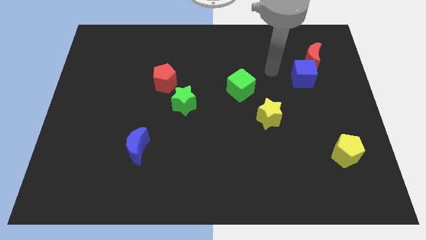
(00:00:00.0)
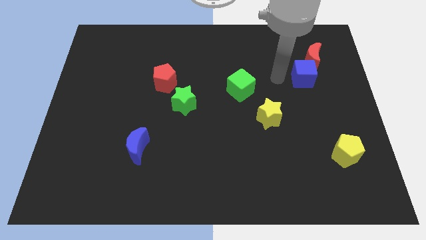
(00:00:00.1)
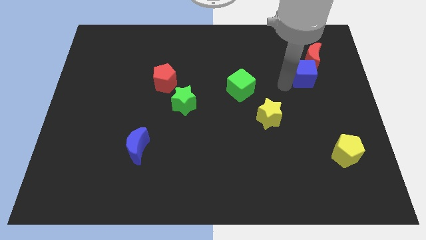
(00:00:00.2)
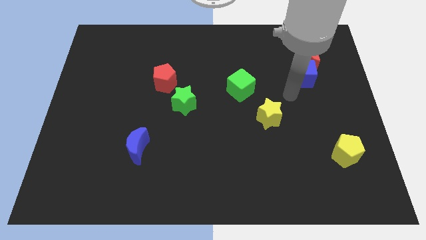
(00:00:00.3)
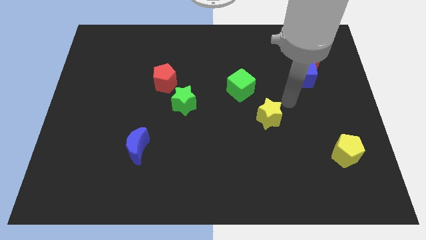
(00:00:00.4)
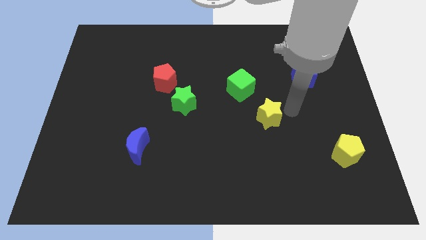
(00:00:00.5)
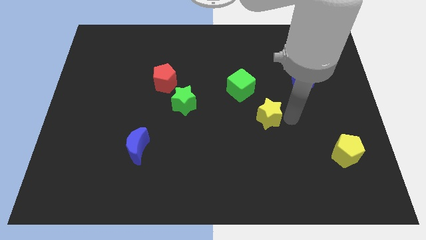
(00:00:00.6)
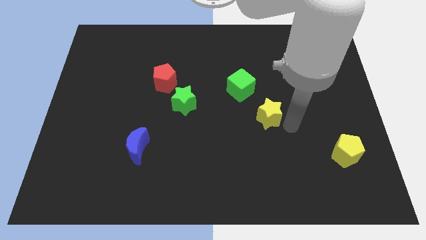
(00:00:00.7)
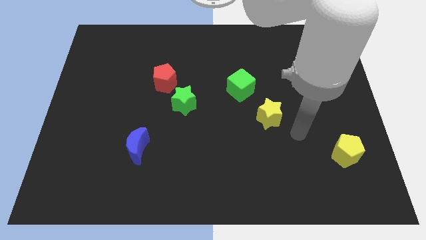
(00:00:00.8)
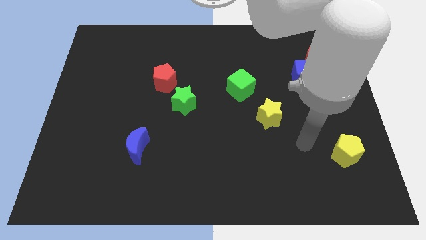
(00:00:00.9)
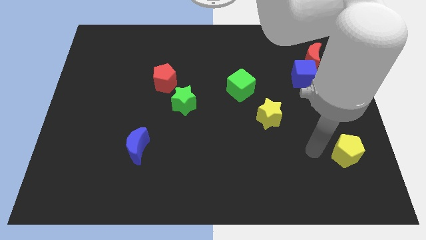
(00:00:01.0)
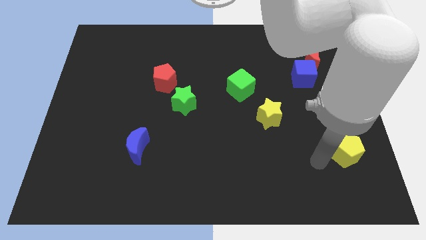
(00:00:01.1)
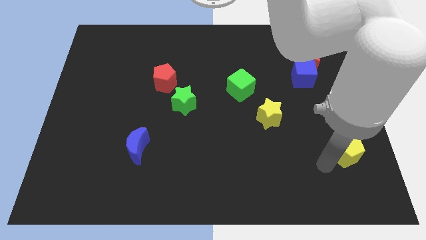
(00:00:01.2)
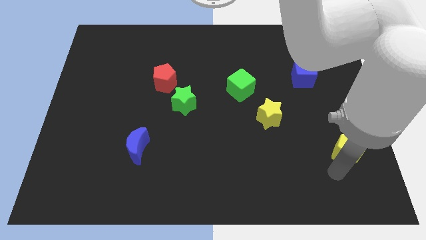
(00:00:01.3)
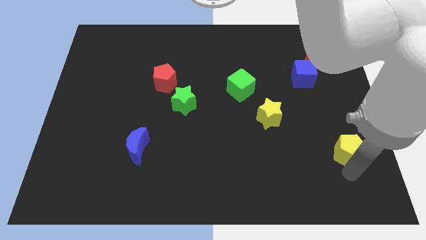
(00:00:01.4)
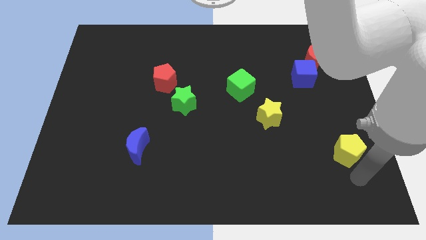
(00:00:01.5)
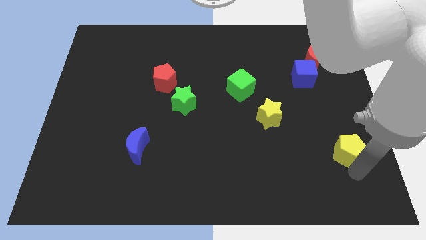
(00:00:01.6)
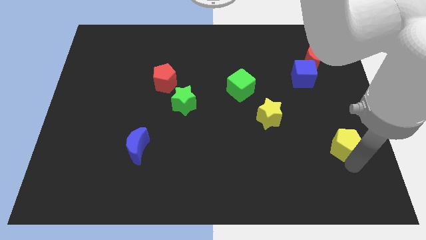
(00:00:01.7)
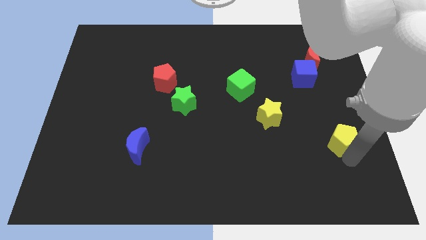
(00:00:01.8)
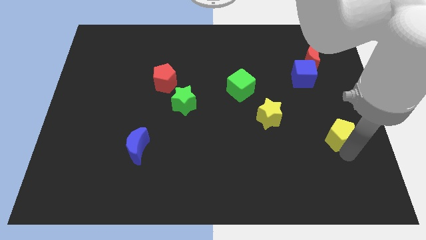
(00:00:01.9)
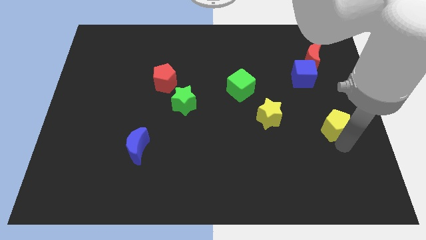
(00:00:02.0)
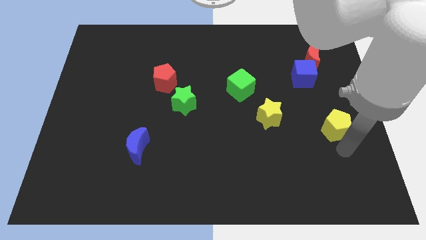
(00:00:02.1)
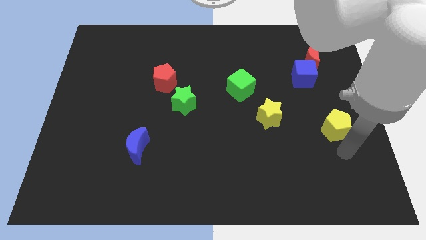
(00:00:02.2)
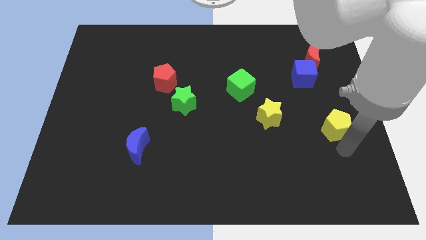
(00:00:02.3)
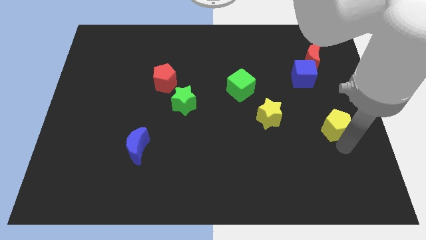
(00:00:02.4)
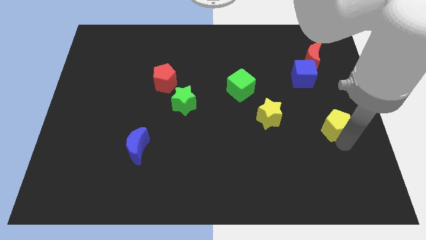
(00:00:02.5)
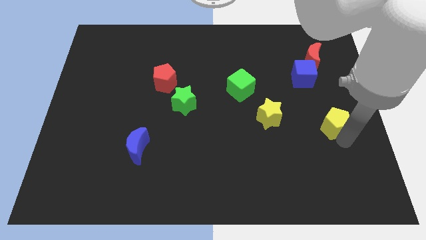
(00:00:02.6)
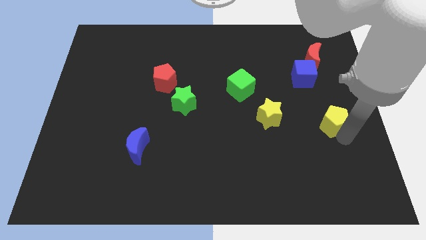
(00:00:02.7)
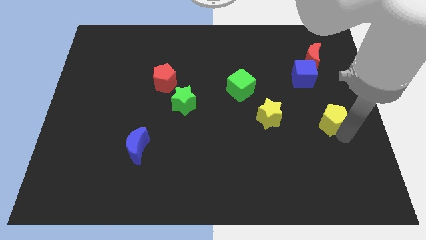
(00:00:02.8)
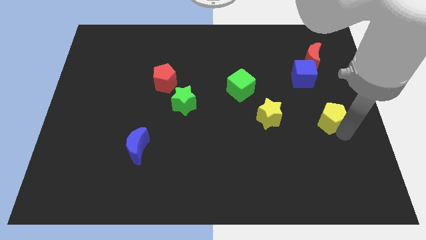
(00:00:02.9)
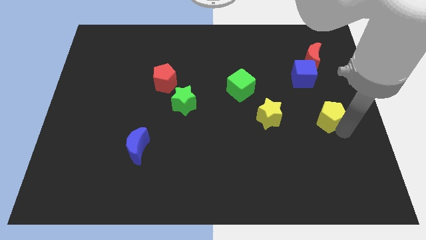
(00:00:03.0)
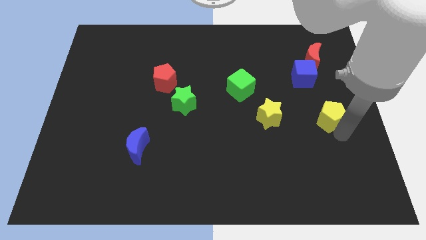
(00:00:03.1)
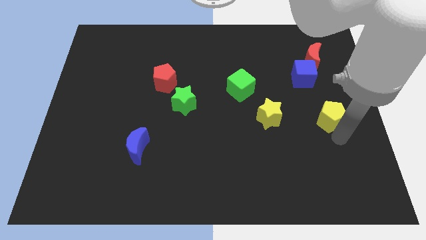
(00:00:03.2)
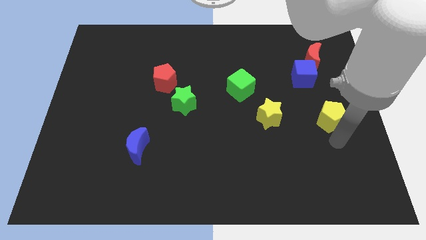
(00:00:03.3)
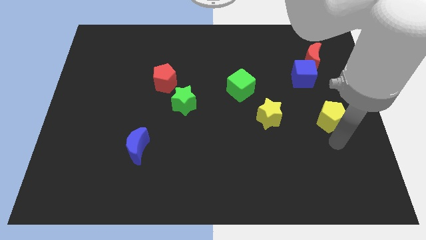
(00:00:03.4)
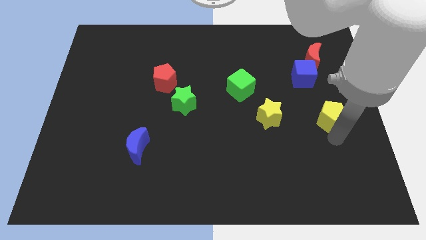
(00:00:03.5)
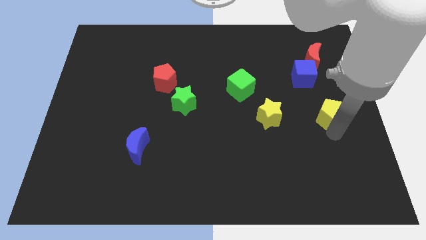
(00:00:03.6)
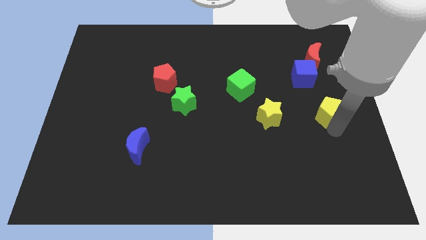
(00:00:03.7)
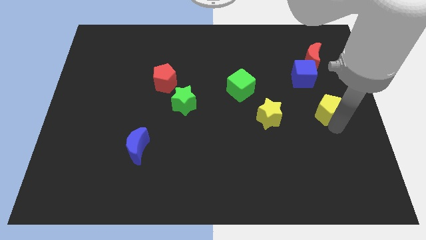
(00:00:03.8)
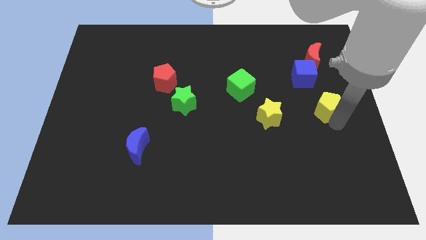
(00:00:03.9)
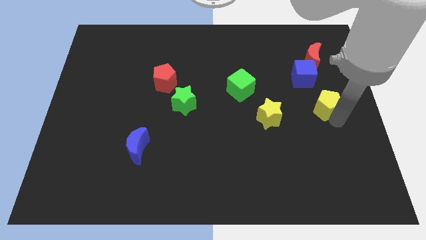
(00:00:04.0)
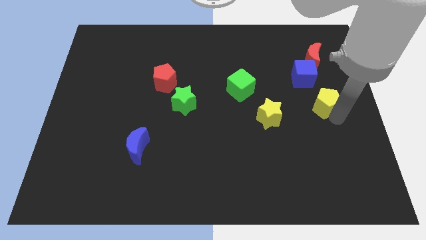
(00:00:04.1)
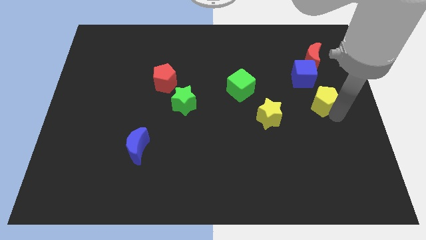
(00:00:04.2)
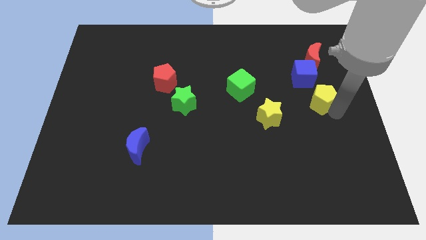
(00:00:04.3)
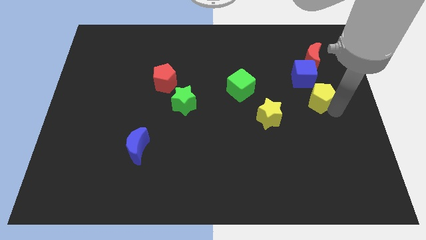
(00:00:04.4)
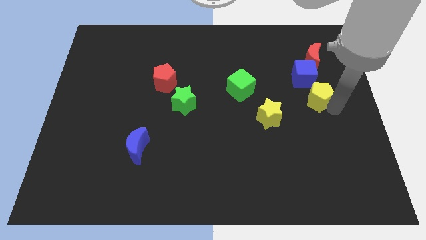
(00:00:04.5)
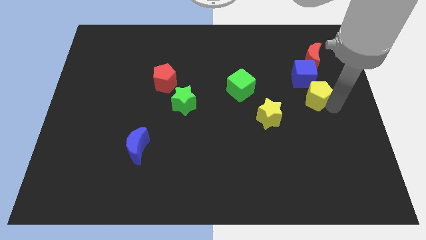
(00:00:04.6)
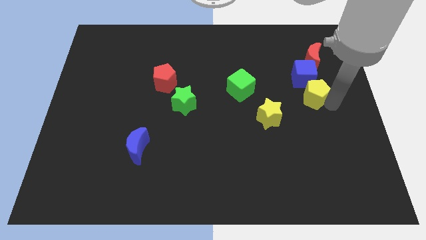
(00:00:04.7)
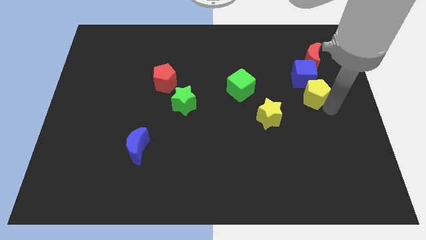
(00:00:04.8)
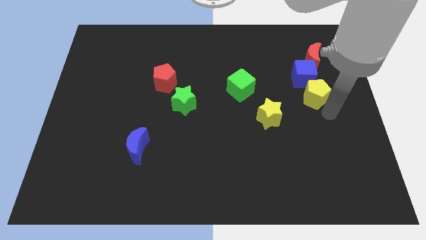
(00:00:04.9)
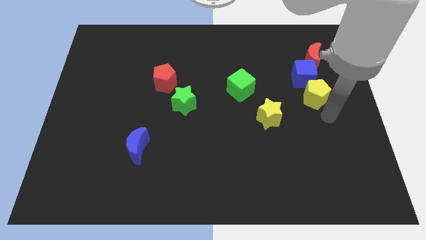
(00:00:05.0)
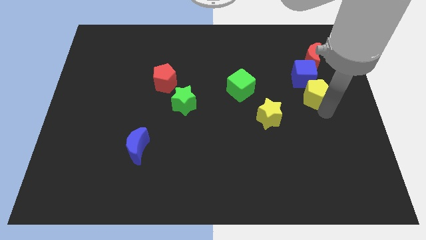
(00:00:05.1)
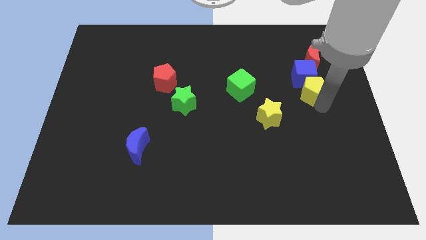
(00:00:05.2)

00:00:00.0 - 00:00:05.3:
put the yellow pentagon next to the blue cube

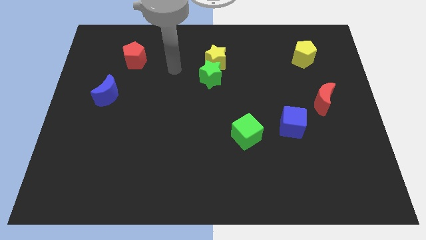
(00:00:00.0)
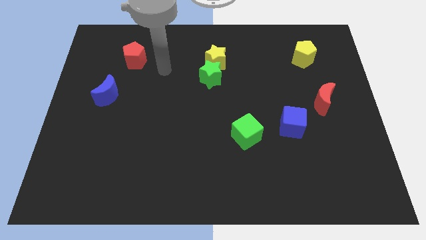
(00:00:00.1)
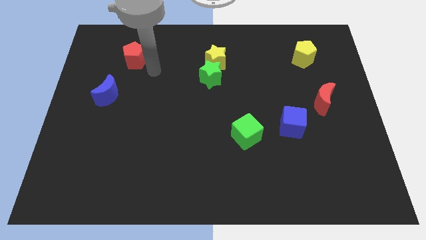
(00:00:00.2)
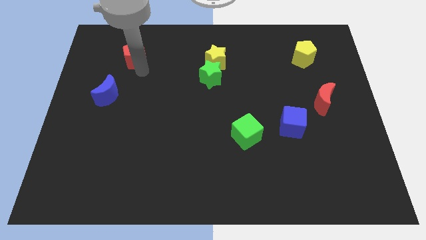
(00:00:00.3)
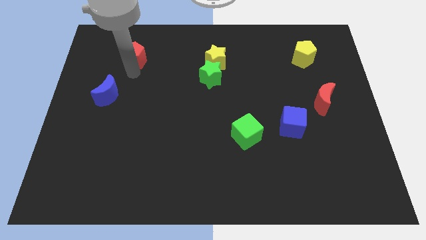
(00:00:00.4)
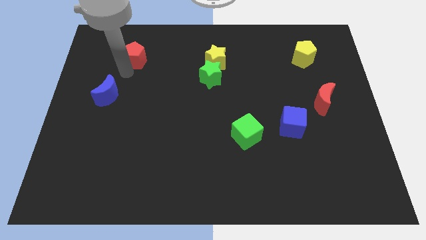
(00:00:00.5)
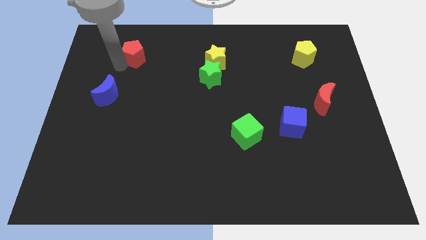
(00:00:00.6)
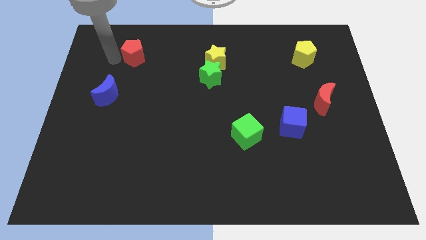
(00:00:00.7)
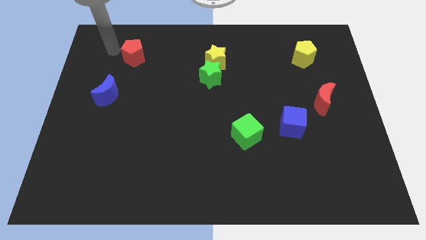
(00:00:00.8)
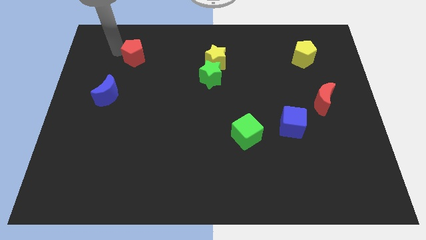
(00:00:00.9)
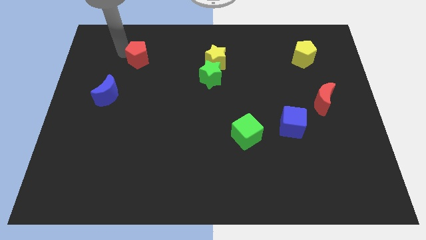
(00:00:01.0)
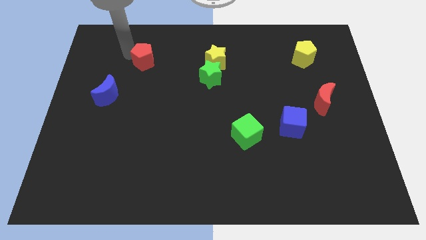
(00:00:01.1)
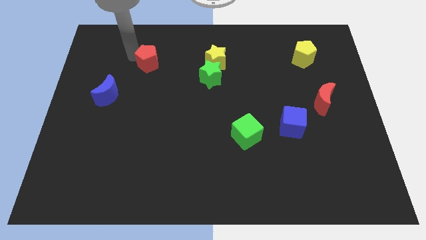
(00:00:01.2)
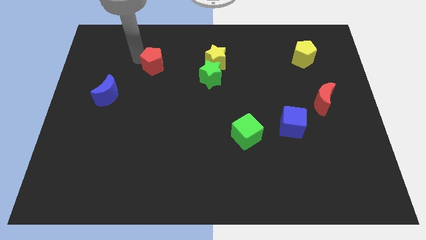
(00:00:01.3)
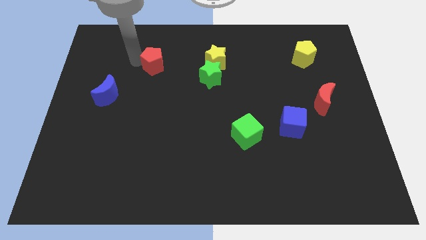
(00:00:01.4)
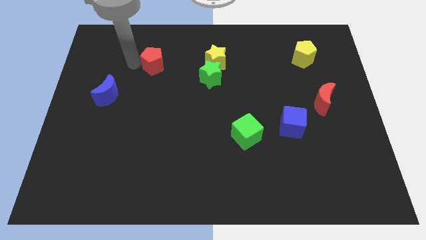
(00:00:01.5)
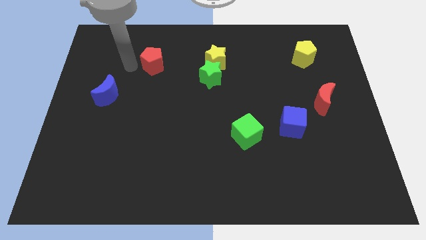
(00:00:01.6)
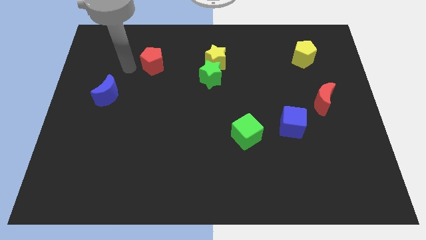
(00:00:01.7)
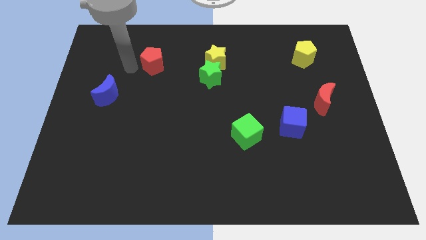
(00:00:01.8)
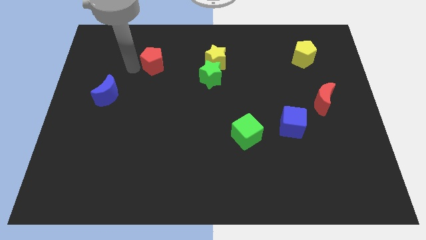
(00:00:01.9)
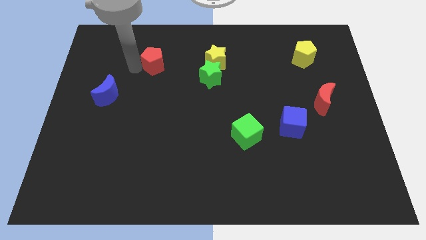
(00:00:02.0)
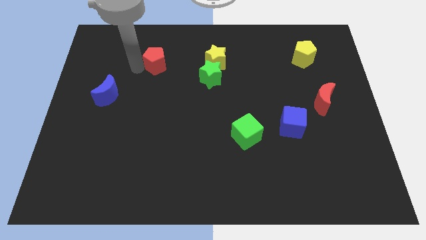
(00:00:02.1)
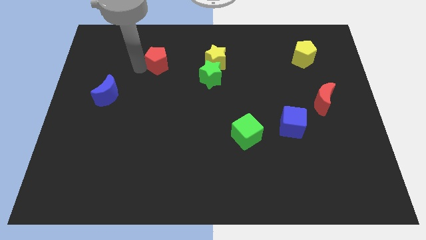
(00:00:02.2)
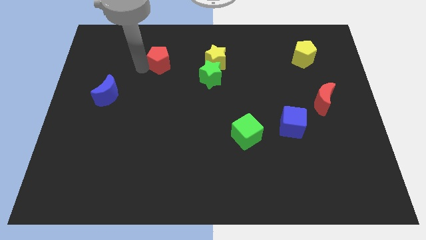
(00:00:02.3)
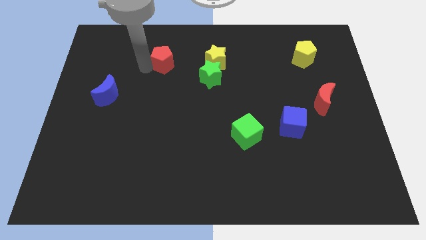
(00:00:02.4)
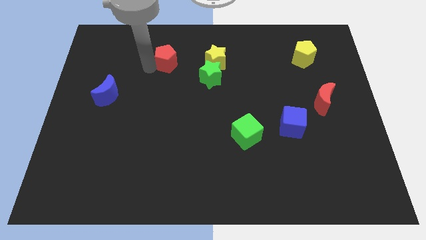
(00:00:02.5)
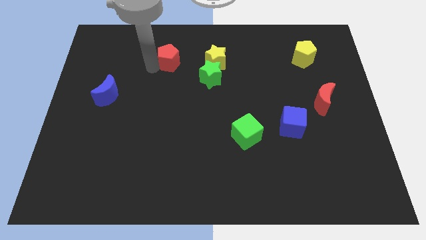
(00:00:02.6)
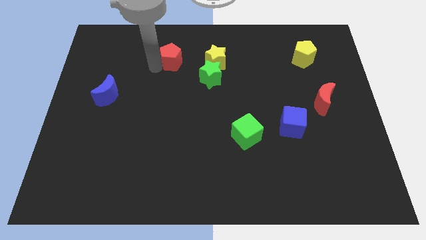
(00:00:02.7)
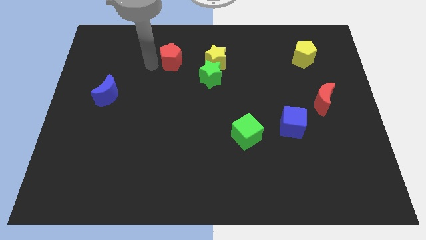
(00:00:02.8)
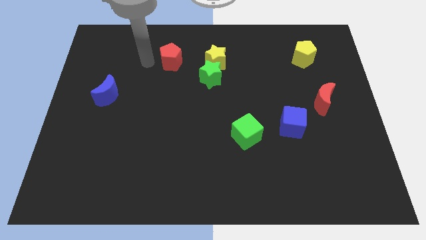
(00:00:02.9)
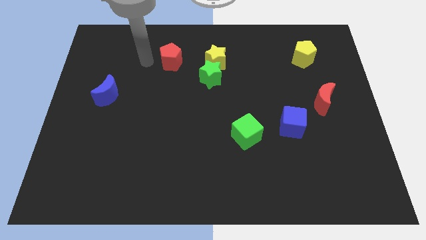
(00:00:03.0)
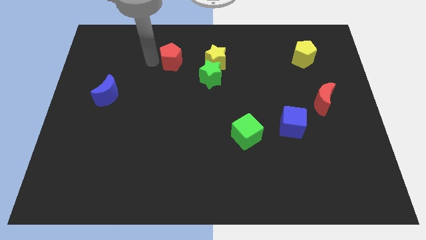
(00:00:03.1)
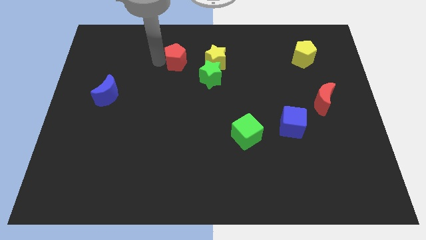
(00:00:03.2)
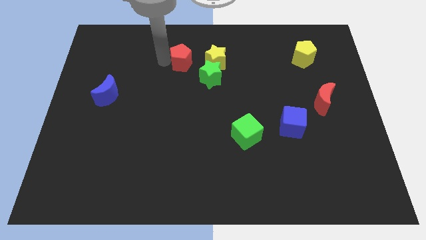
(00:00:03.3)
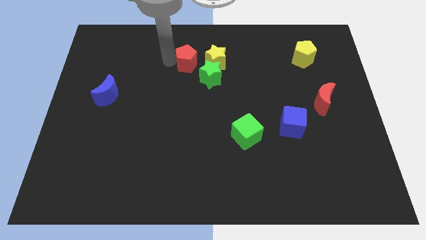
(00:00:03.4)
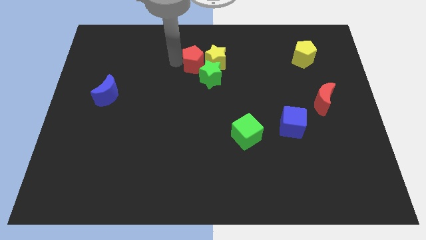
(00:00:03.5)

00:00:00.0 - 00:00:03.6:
push the red pentagon close to the yellow star
